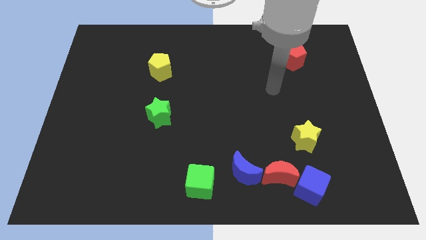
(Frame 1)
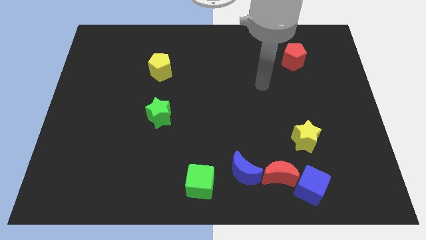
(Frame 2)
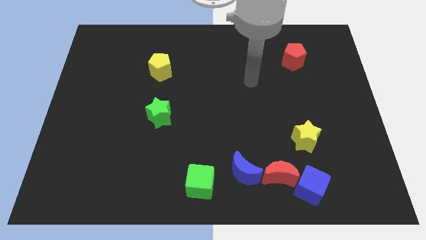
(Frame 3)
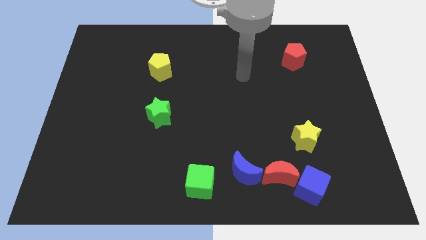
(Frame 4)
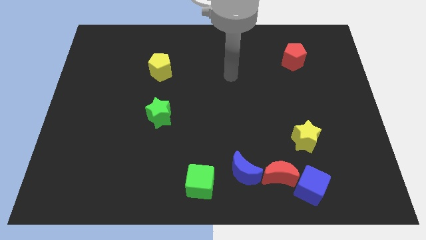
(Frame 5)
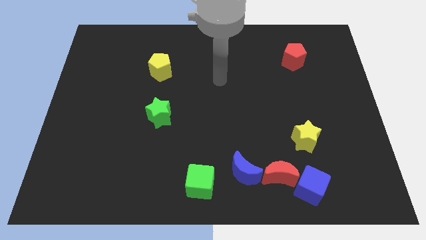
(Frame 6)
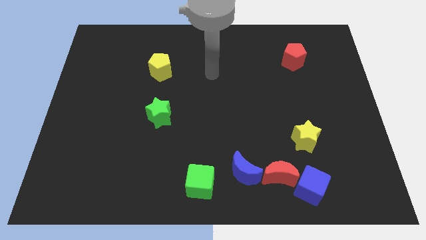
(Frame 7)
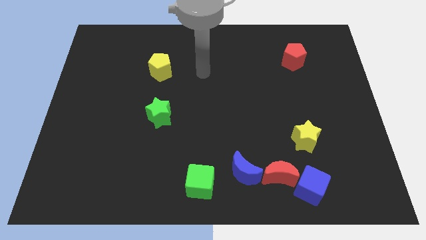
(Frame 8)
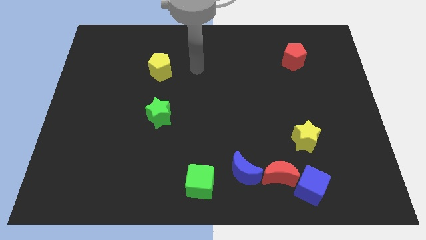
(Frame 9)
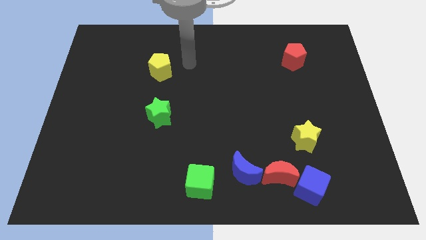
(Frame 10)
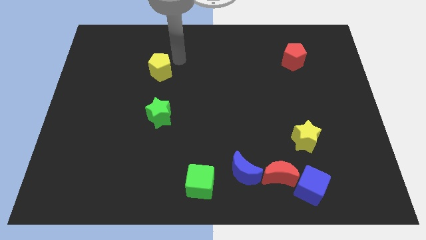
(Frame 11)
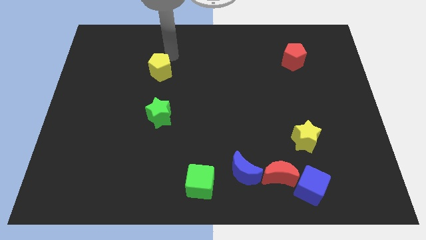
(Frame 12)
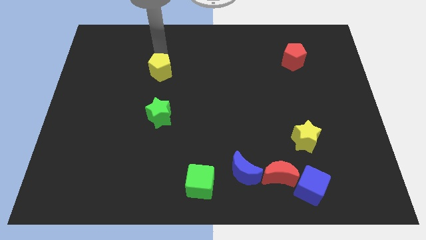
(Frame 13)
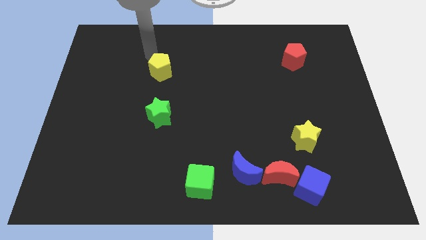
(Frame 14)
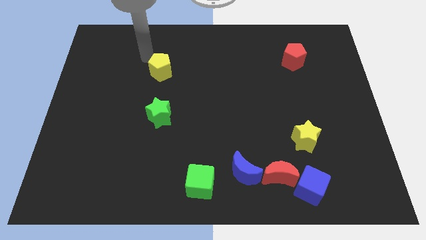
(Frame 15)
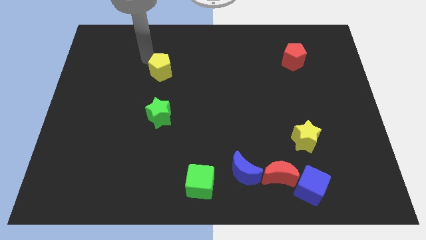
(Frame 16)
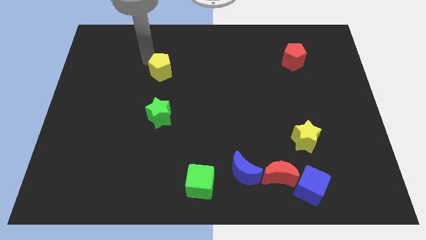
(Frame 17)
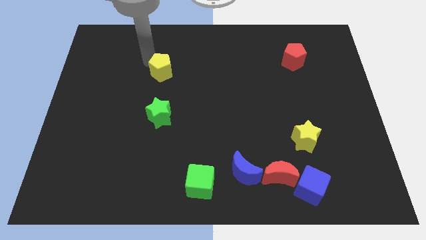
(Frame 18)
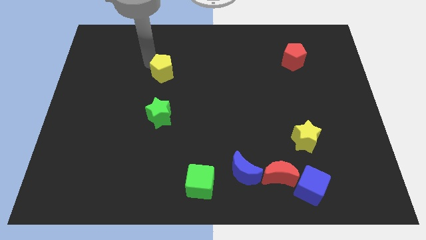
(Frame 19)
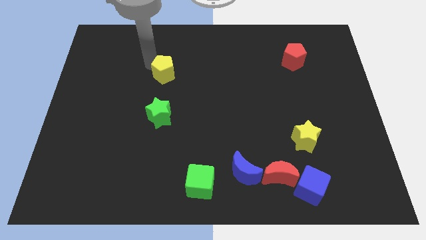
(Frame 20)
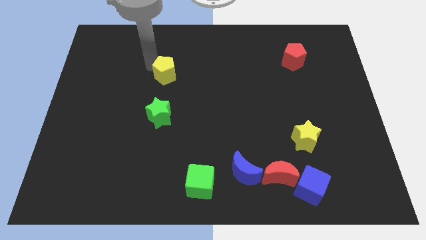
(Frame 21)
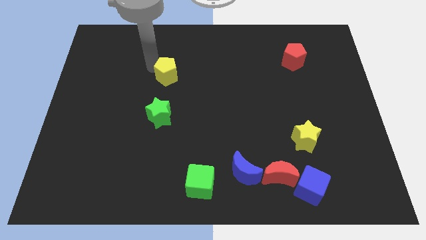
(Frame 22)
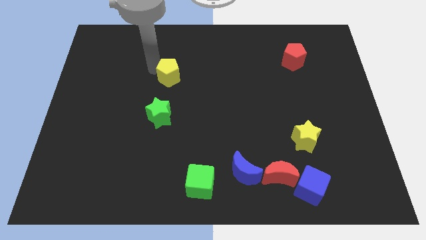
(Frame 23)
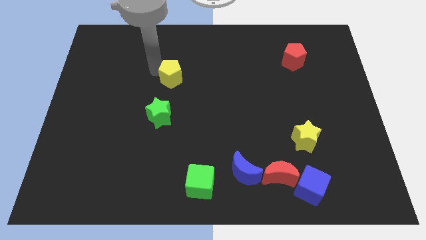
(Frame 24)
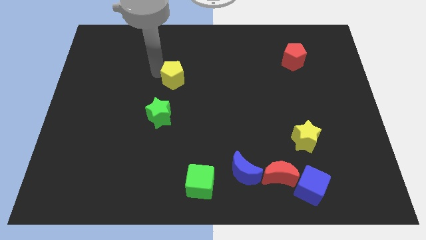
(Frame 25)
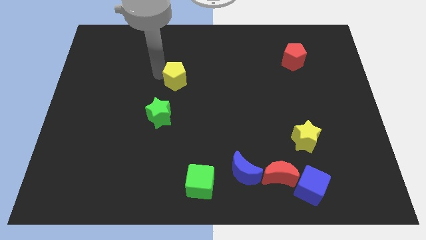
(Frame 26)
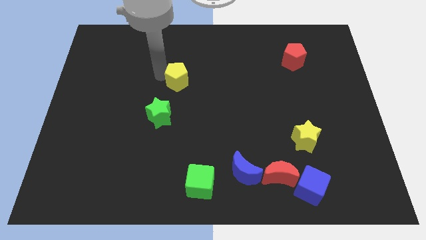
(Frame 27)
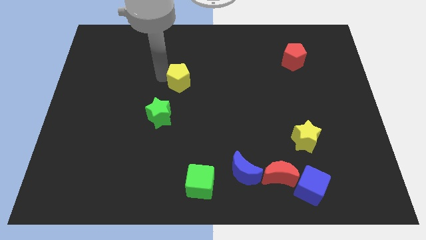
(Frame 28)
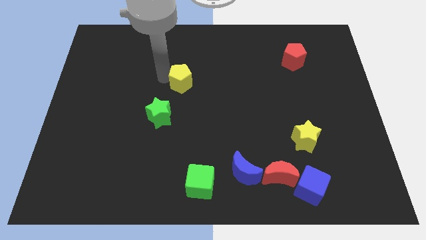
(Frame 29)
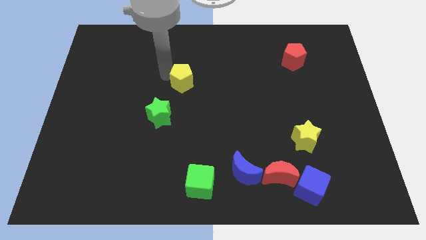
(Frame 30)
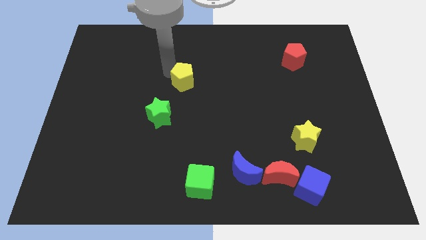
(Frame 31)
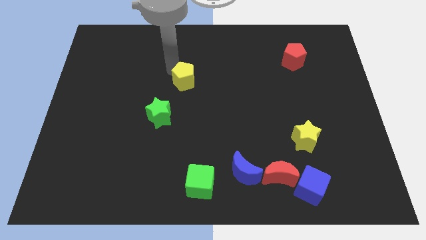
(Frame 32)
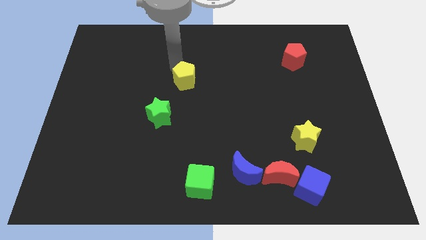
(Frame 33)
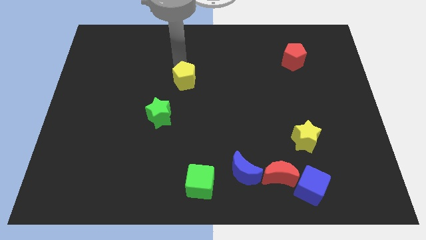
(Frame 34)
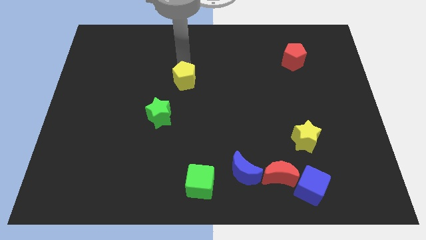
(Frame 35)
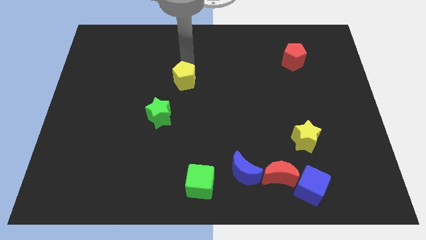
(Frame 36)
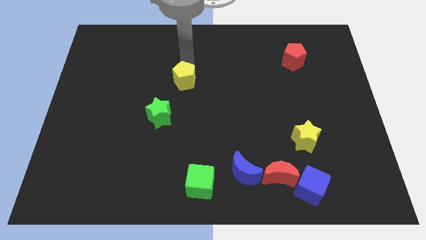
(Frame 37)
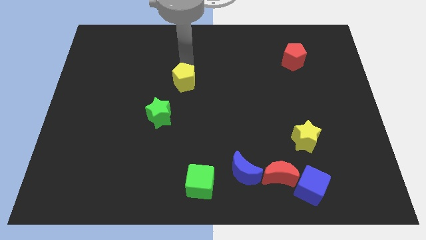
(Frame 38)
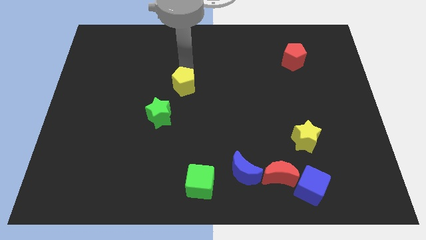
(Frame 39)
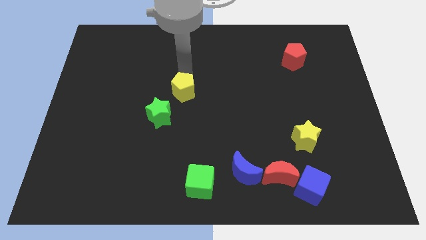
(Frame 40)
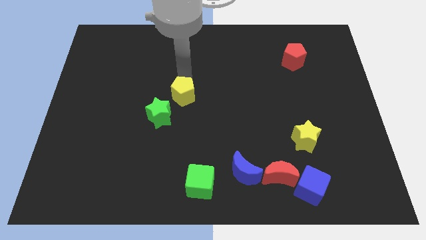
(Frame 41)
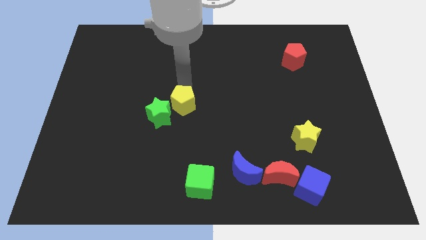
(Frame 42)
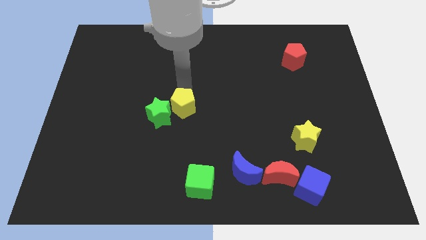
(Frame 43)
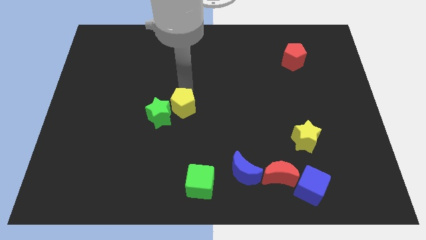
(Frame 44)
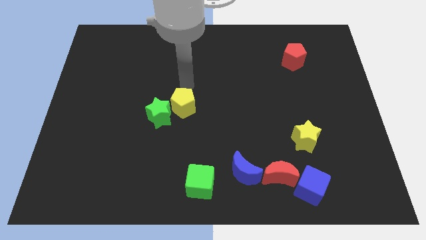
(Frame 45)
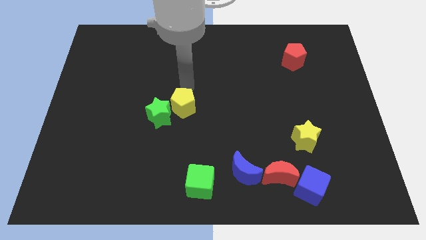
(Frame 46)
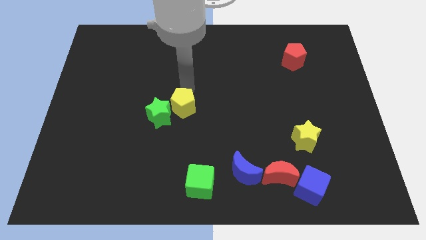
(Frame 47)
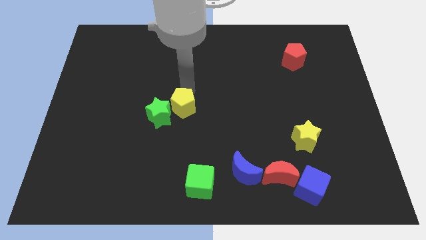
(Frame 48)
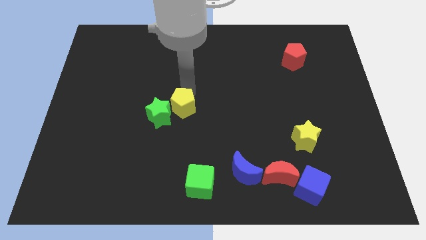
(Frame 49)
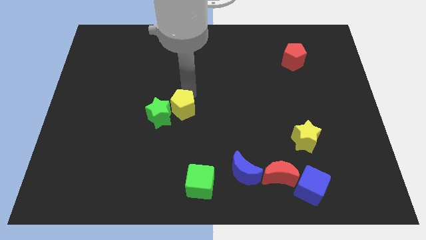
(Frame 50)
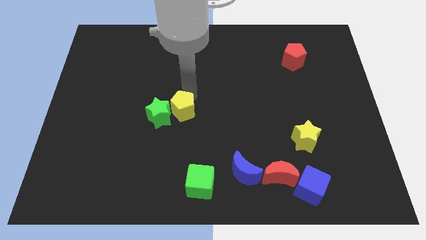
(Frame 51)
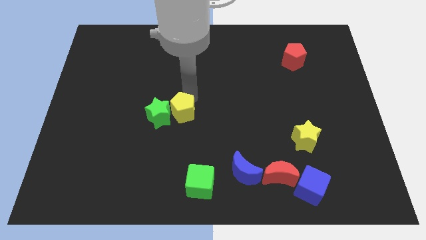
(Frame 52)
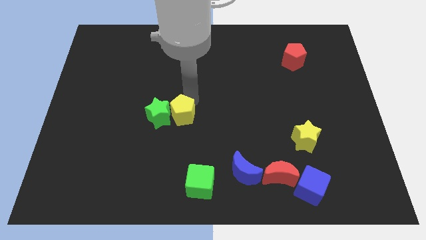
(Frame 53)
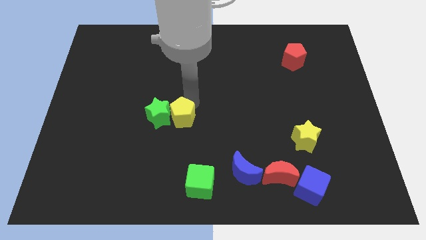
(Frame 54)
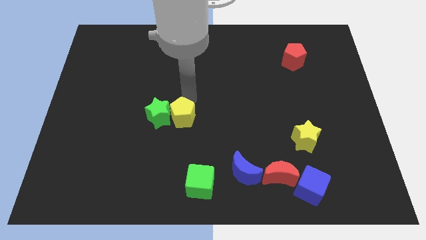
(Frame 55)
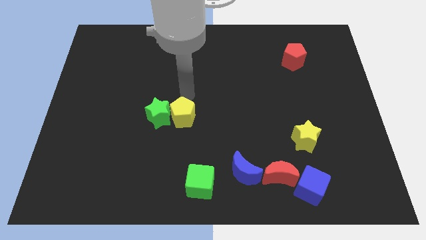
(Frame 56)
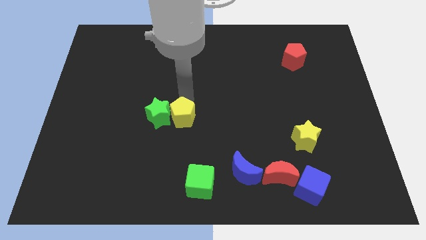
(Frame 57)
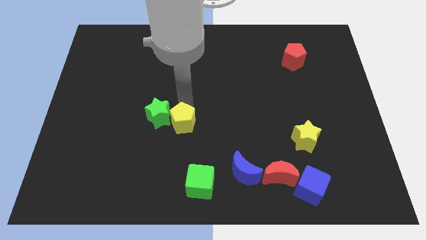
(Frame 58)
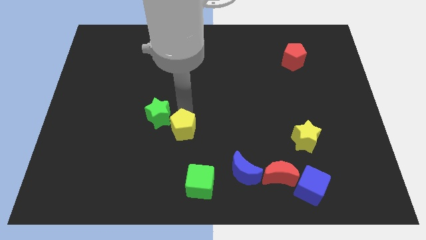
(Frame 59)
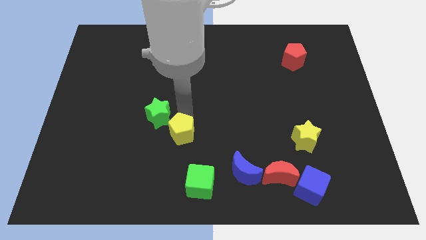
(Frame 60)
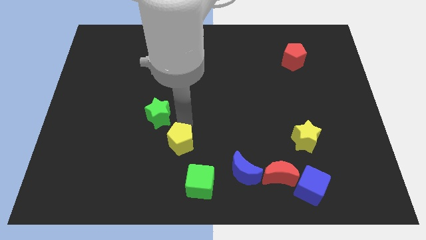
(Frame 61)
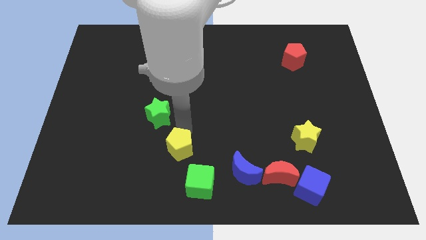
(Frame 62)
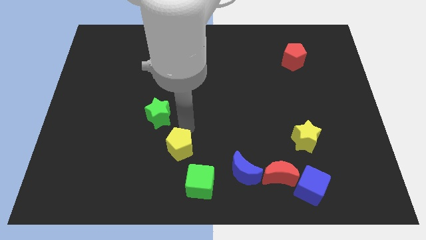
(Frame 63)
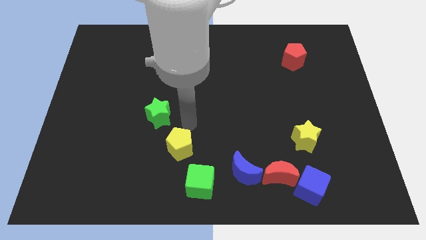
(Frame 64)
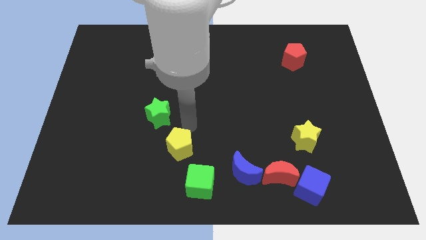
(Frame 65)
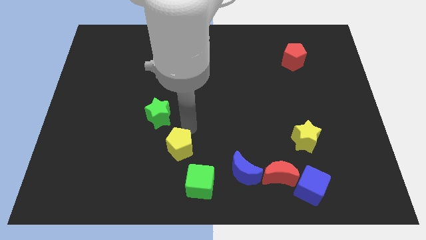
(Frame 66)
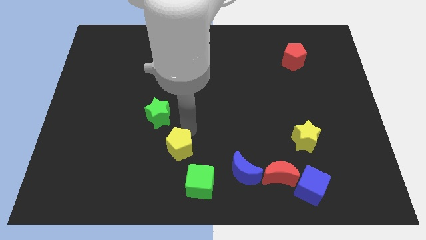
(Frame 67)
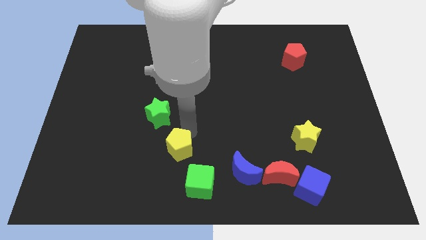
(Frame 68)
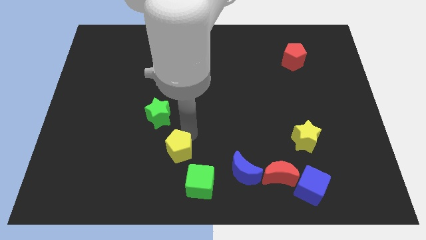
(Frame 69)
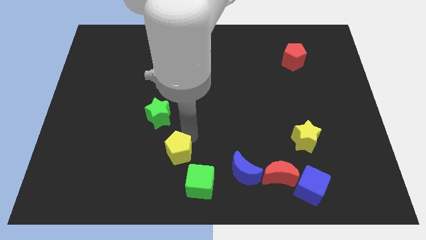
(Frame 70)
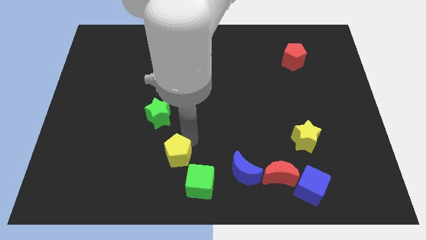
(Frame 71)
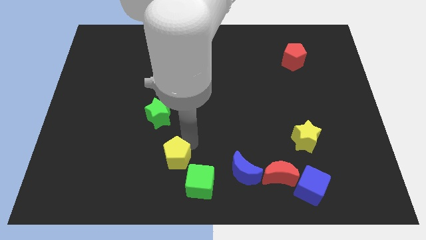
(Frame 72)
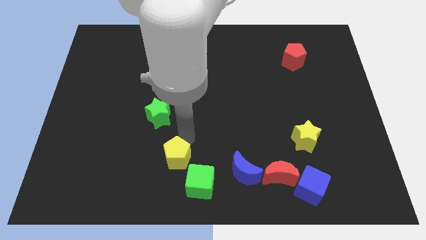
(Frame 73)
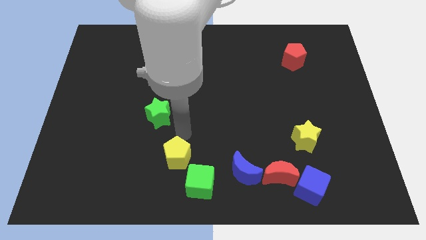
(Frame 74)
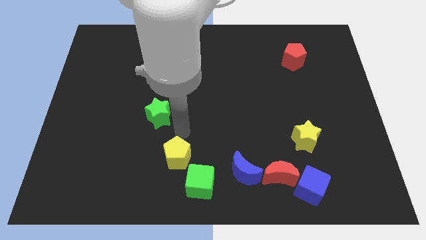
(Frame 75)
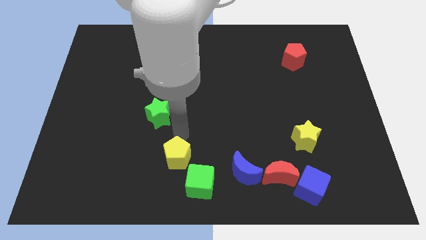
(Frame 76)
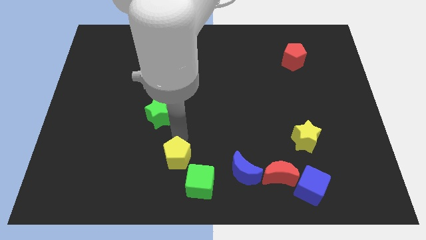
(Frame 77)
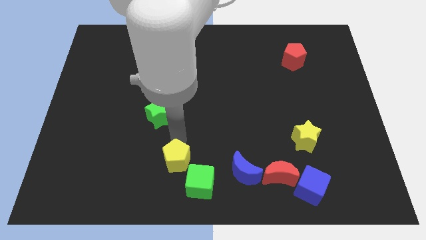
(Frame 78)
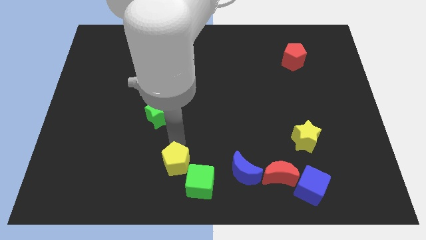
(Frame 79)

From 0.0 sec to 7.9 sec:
slide the yellow pentagon to the bottom
